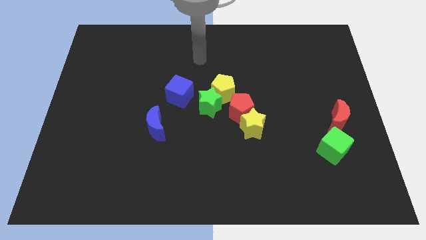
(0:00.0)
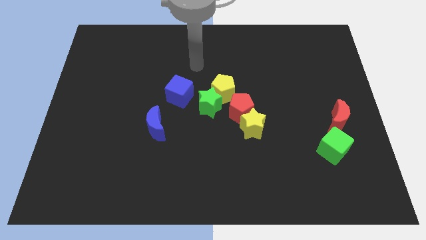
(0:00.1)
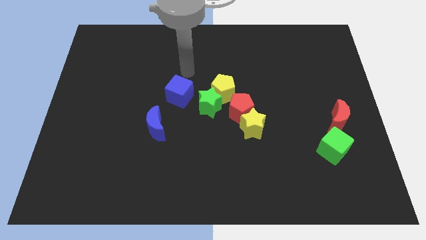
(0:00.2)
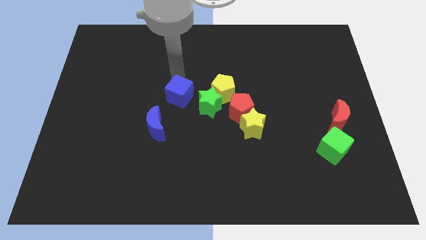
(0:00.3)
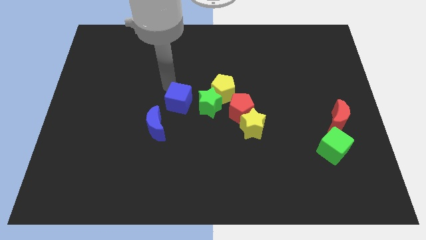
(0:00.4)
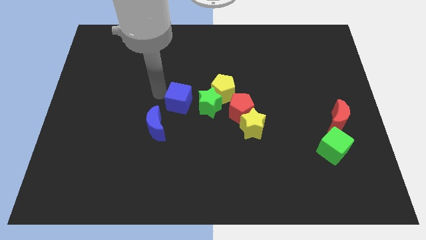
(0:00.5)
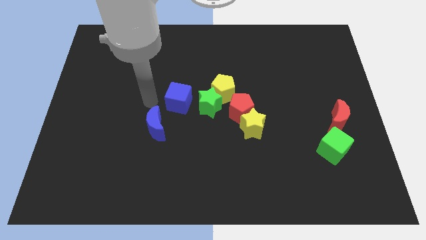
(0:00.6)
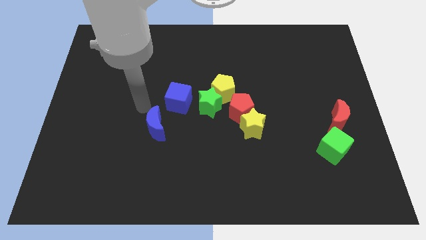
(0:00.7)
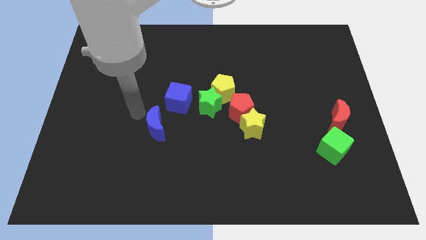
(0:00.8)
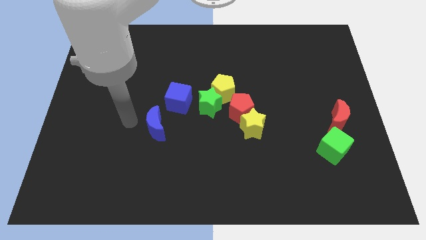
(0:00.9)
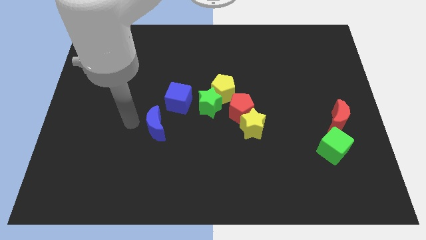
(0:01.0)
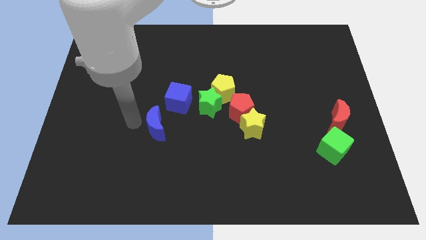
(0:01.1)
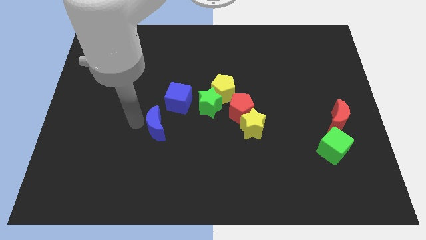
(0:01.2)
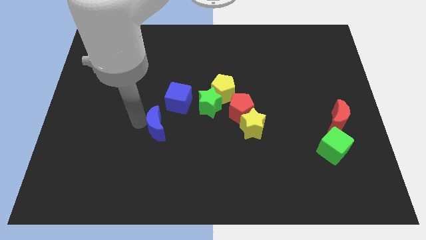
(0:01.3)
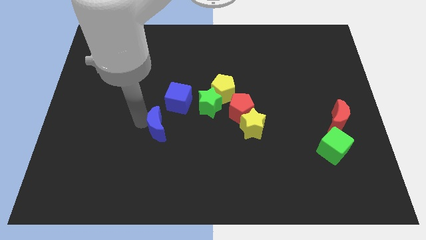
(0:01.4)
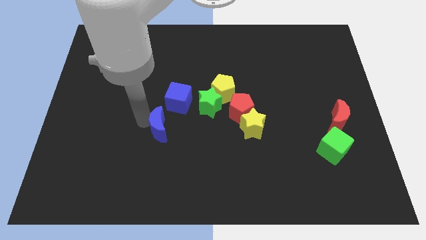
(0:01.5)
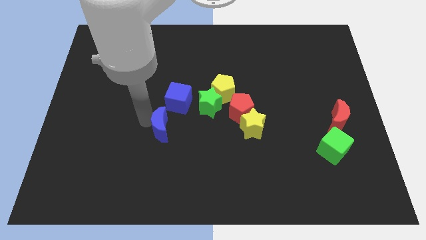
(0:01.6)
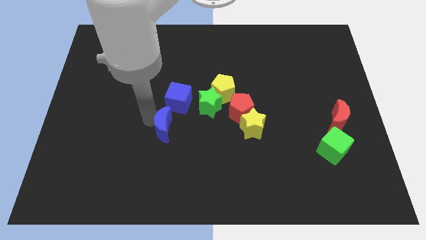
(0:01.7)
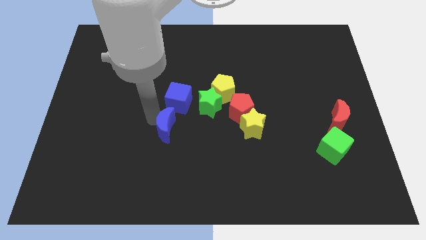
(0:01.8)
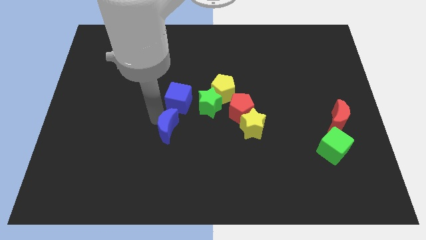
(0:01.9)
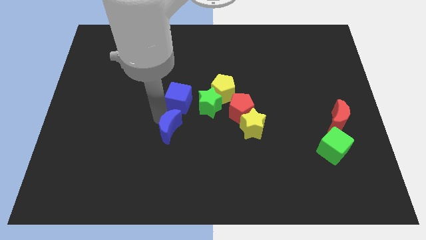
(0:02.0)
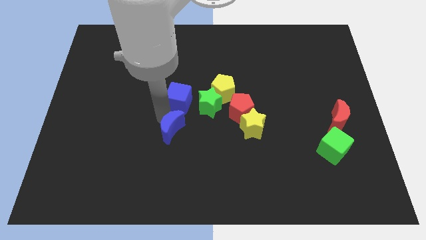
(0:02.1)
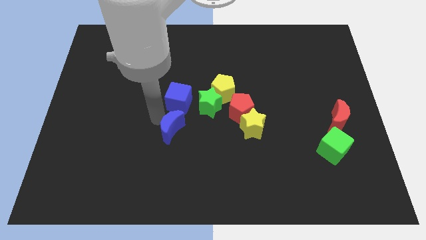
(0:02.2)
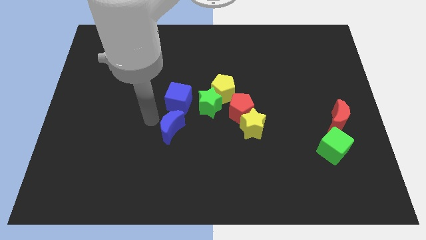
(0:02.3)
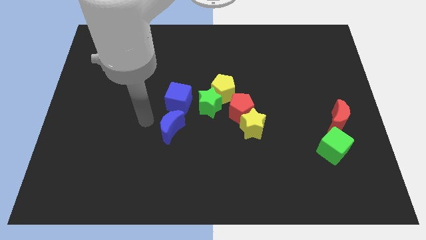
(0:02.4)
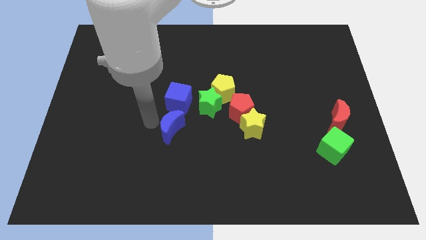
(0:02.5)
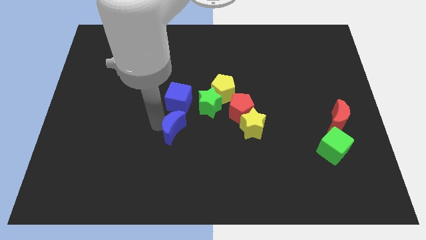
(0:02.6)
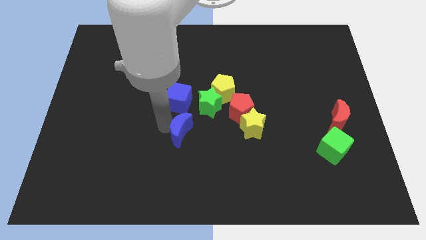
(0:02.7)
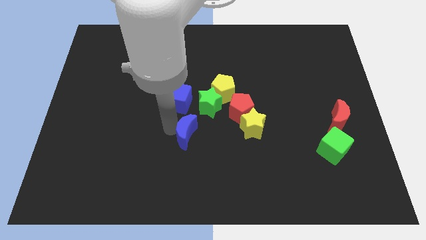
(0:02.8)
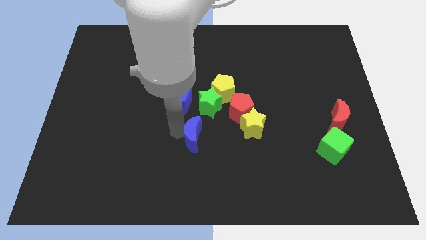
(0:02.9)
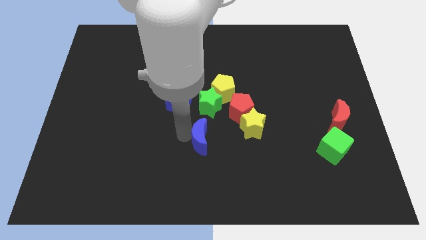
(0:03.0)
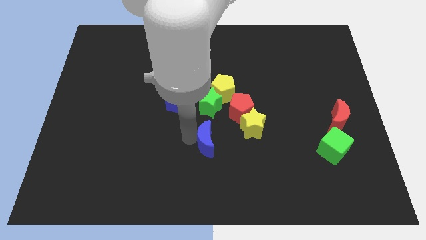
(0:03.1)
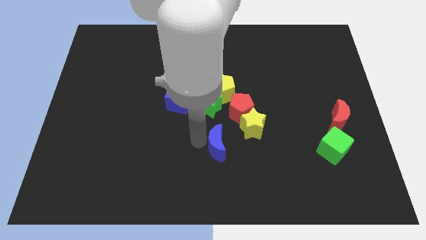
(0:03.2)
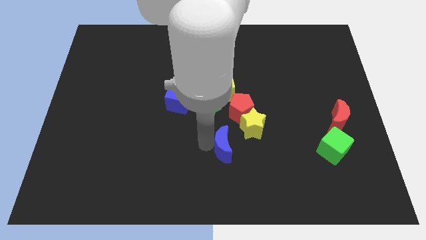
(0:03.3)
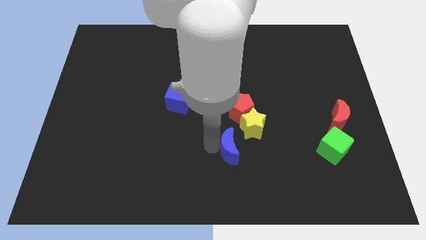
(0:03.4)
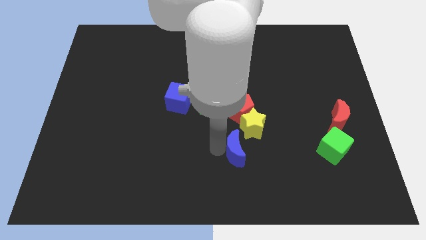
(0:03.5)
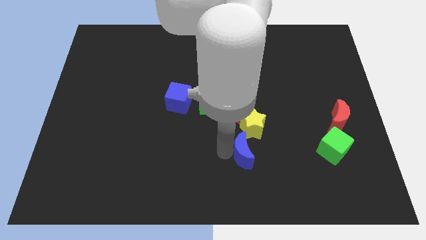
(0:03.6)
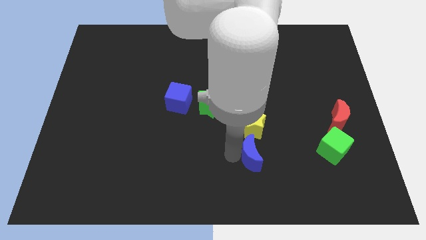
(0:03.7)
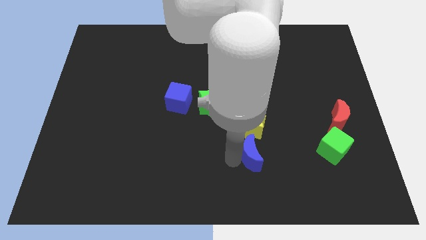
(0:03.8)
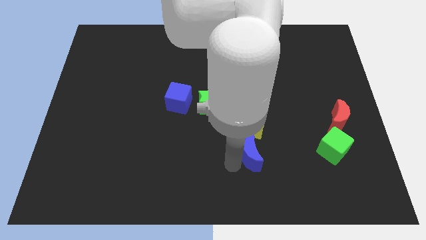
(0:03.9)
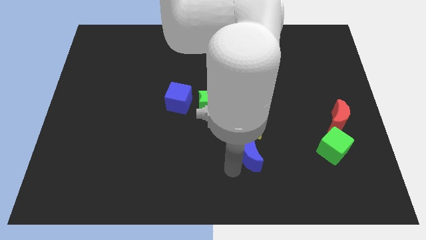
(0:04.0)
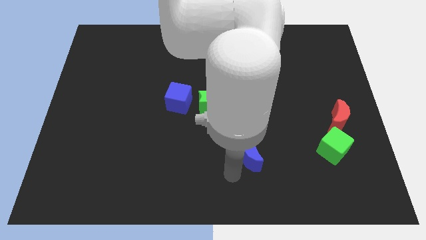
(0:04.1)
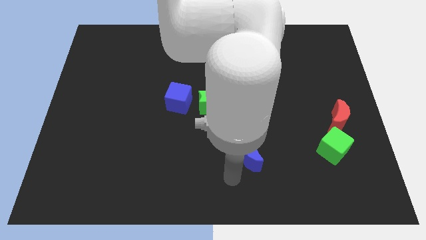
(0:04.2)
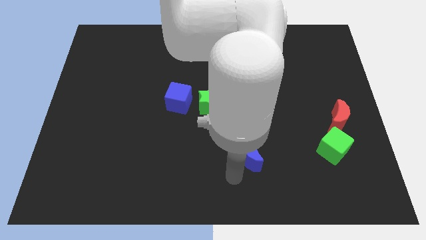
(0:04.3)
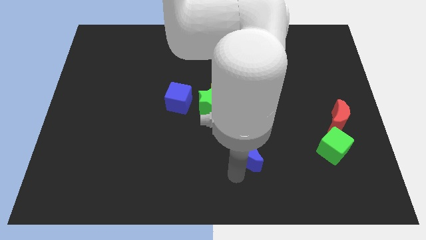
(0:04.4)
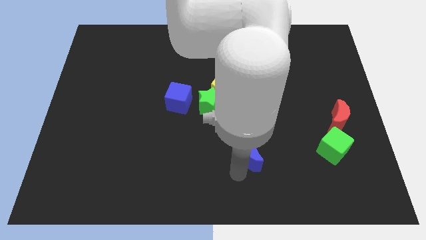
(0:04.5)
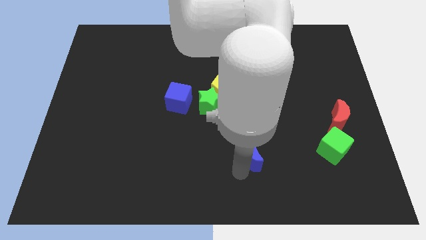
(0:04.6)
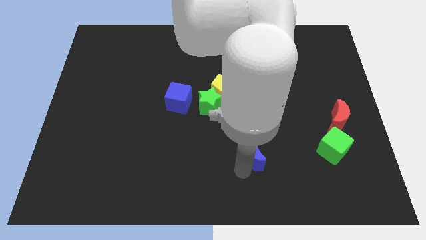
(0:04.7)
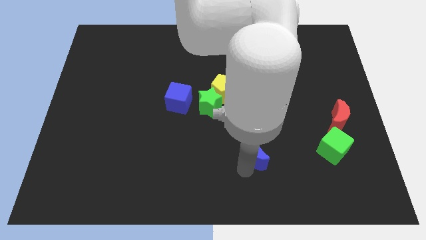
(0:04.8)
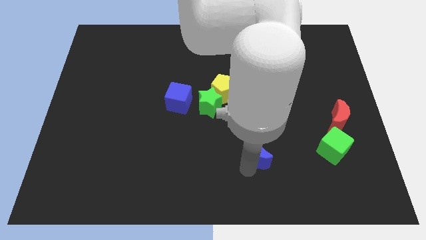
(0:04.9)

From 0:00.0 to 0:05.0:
move the blue moon right

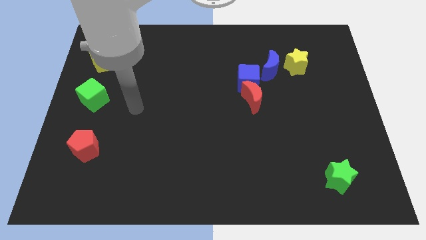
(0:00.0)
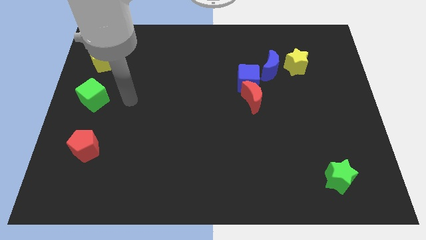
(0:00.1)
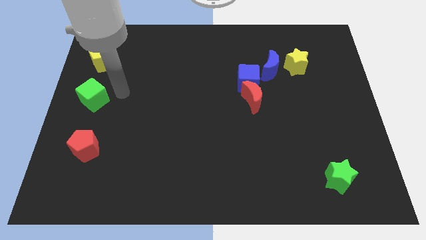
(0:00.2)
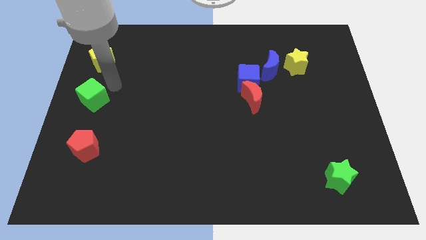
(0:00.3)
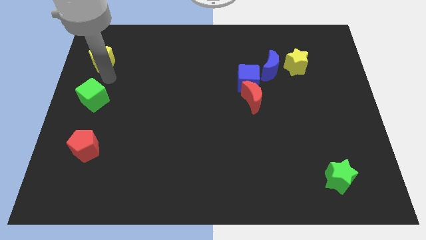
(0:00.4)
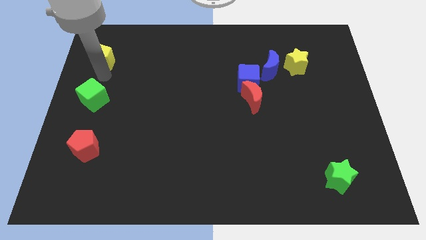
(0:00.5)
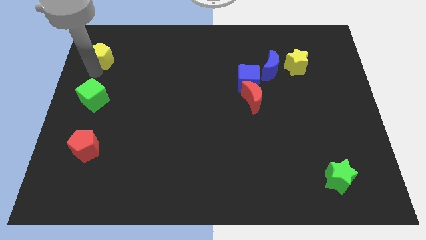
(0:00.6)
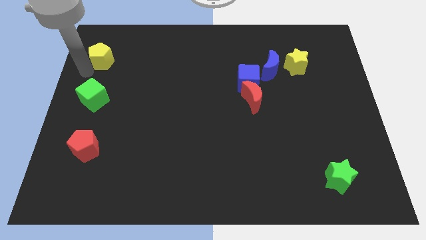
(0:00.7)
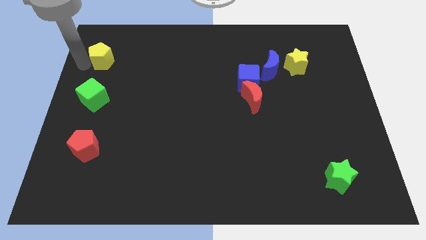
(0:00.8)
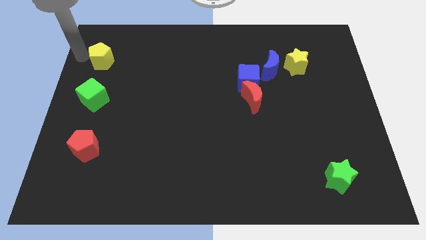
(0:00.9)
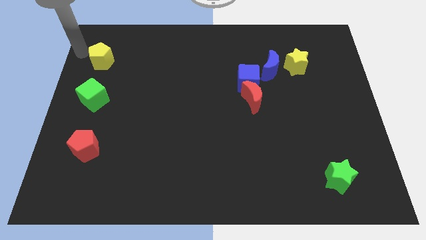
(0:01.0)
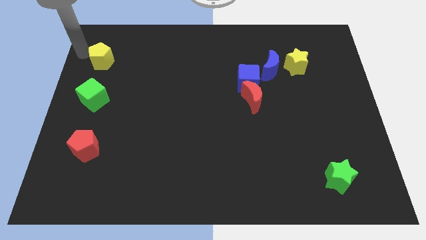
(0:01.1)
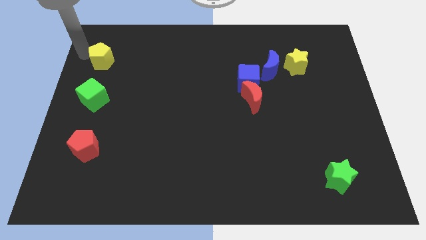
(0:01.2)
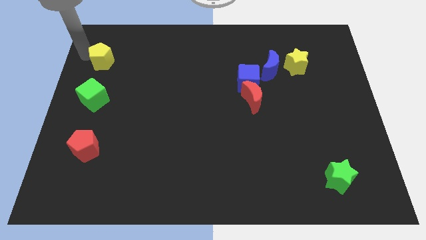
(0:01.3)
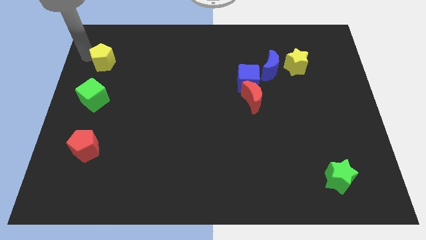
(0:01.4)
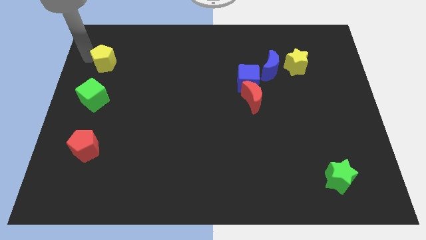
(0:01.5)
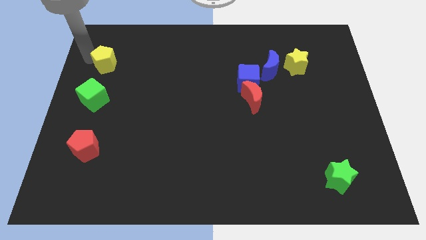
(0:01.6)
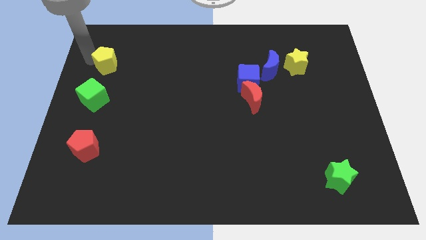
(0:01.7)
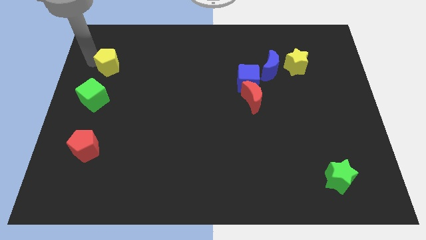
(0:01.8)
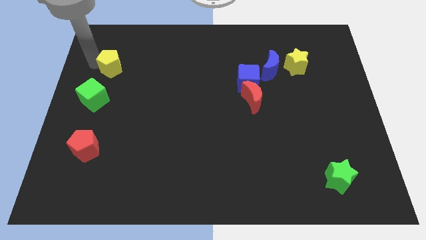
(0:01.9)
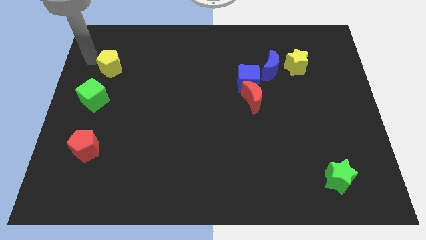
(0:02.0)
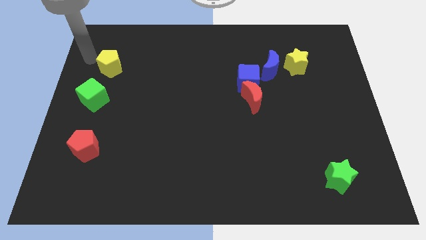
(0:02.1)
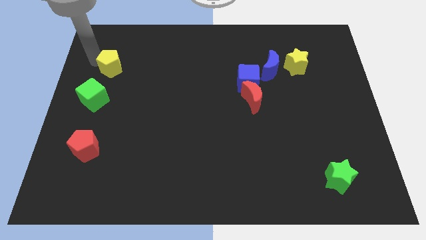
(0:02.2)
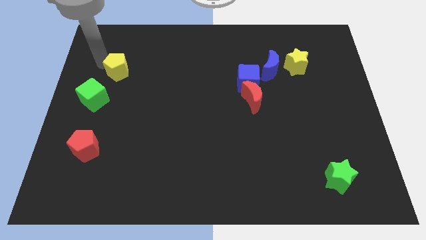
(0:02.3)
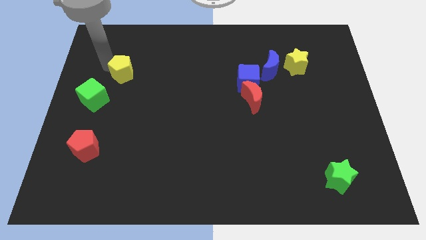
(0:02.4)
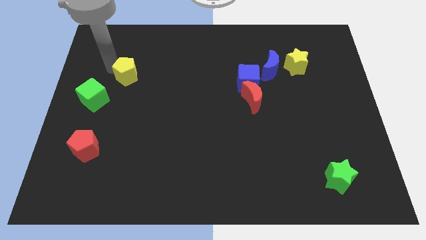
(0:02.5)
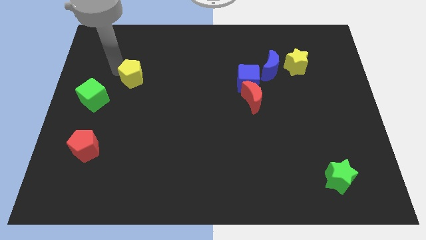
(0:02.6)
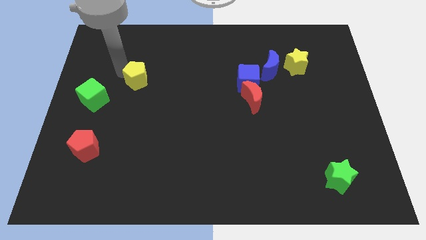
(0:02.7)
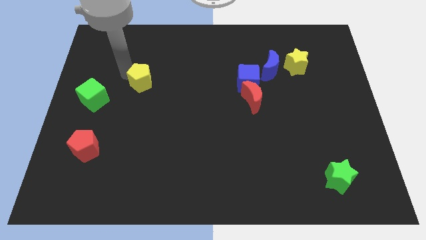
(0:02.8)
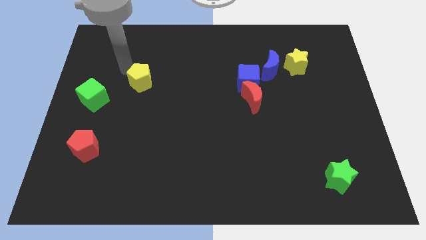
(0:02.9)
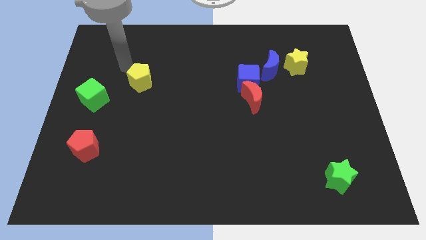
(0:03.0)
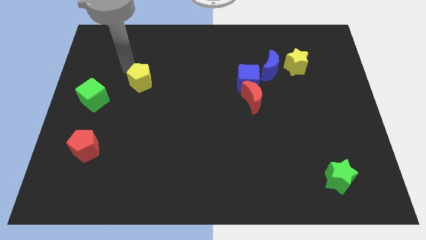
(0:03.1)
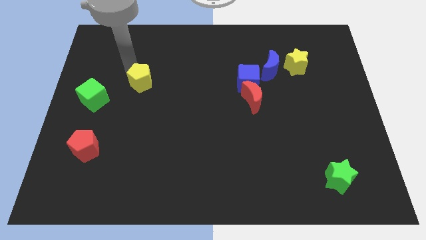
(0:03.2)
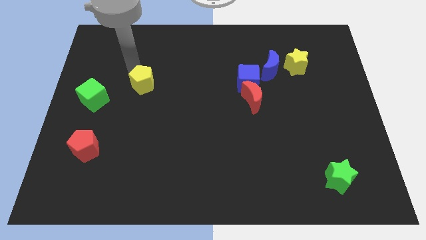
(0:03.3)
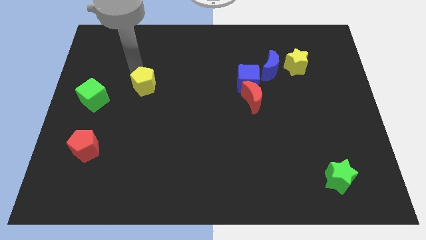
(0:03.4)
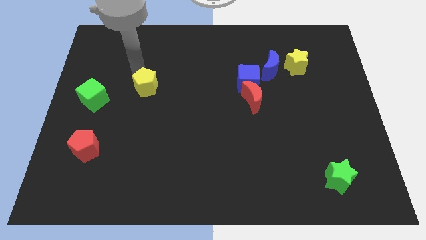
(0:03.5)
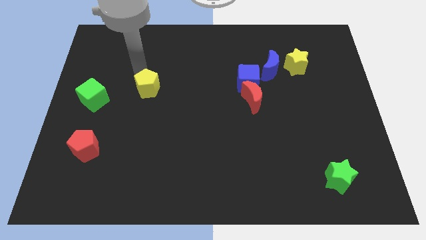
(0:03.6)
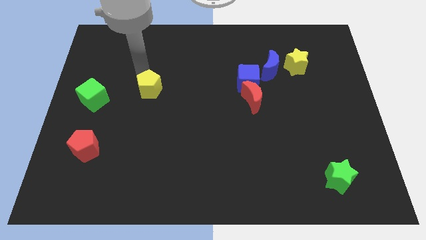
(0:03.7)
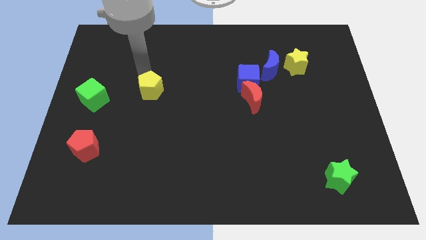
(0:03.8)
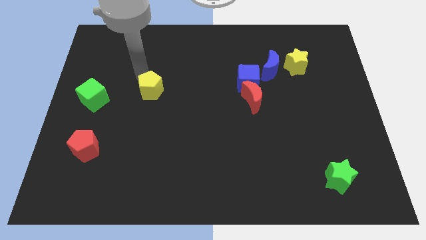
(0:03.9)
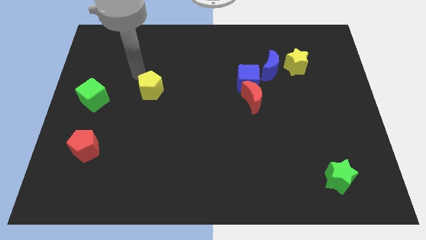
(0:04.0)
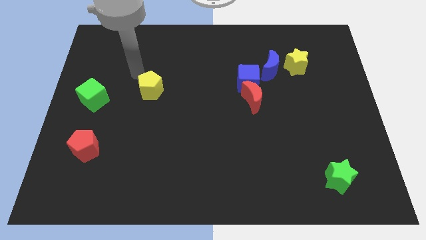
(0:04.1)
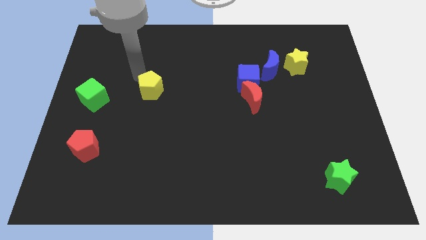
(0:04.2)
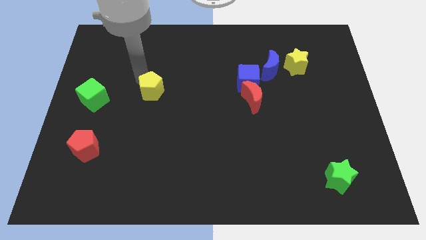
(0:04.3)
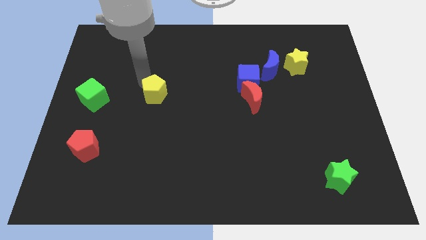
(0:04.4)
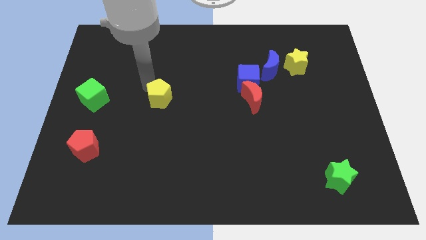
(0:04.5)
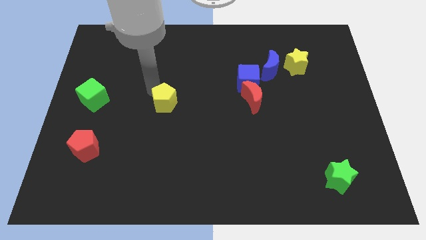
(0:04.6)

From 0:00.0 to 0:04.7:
move the yellow pentagon diagonally down and right
